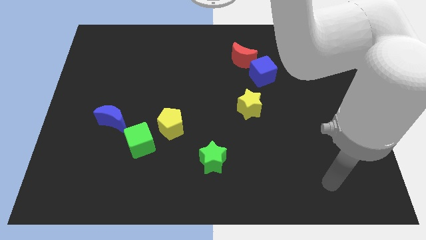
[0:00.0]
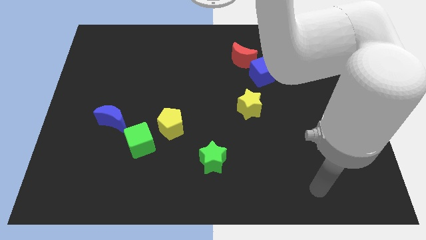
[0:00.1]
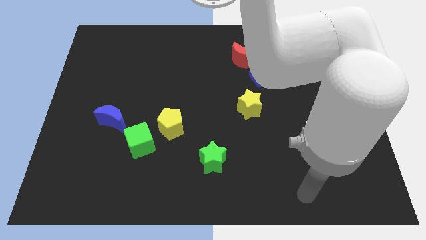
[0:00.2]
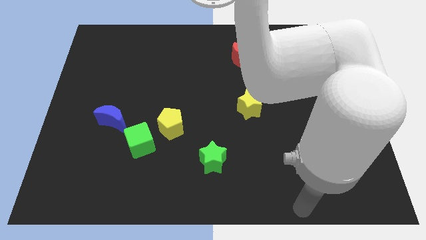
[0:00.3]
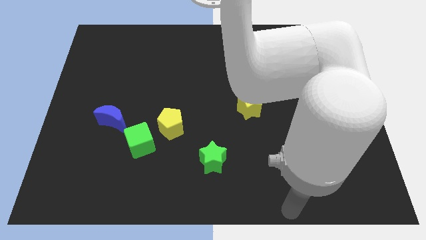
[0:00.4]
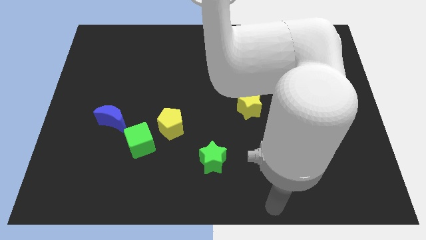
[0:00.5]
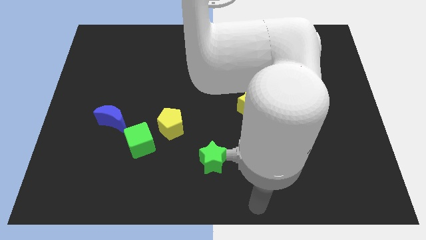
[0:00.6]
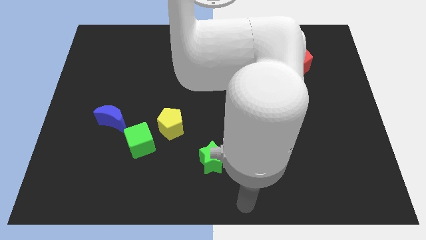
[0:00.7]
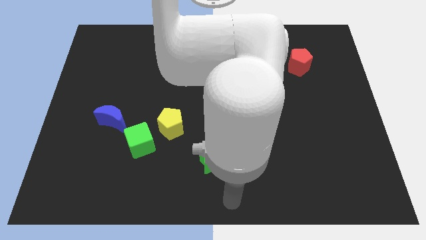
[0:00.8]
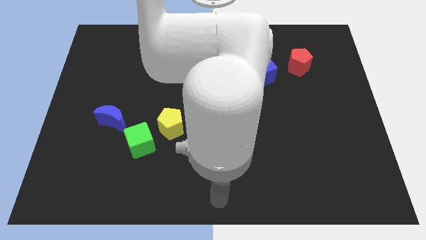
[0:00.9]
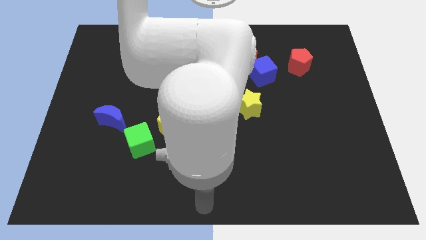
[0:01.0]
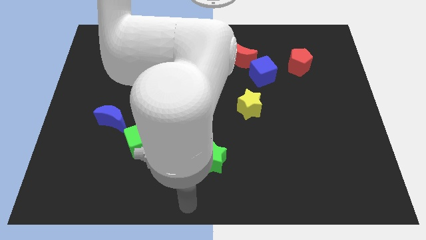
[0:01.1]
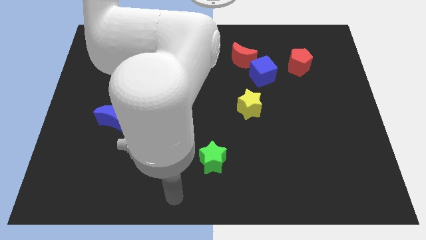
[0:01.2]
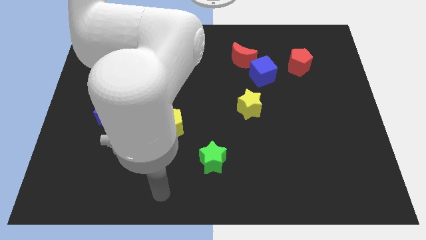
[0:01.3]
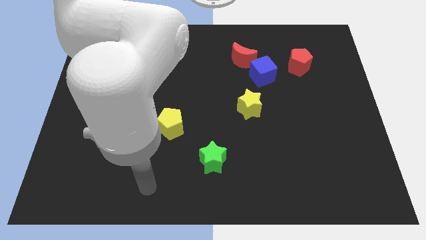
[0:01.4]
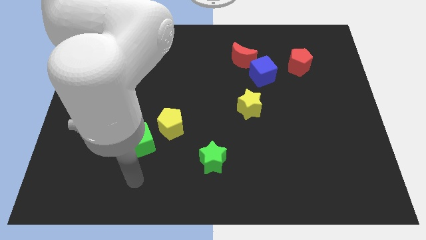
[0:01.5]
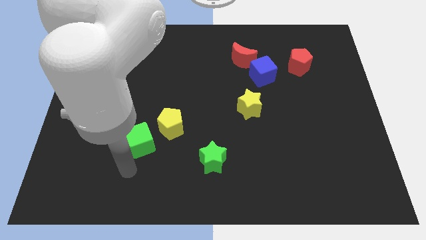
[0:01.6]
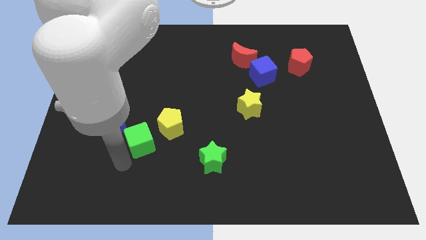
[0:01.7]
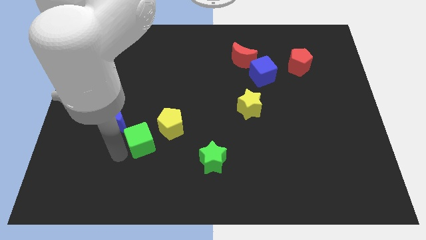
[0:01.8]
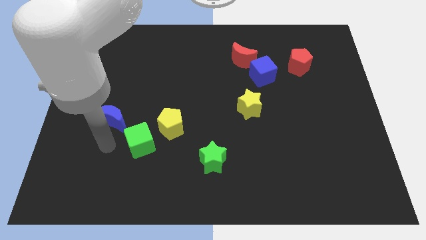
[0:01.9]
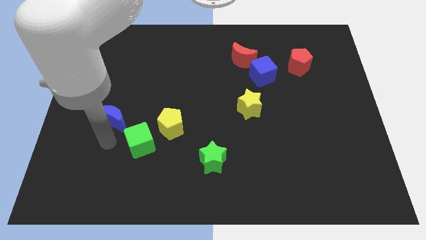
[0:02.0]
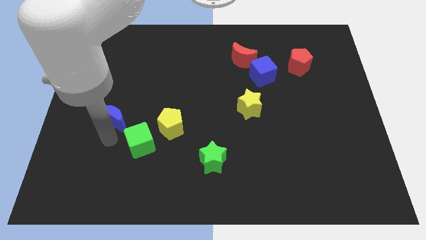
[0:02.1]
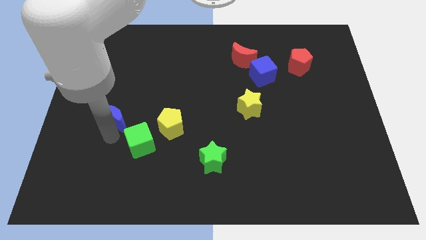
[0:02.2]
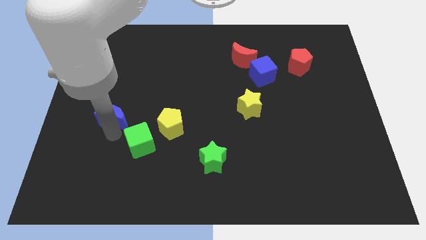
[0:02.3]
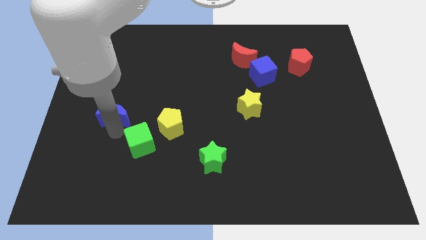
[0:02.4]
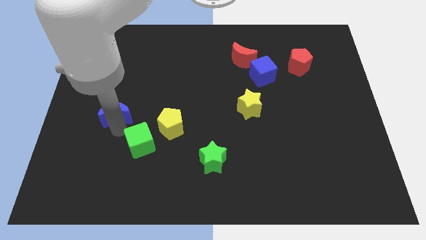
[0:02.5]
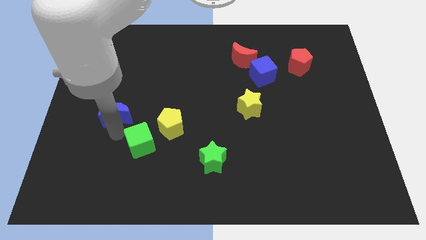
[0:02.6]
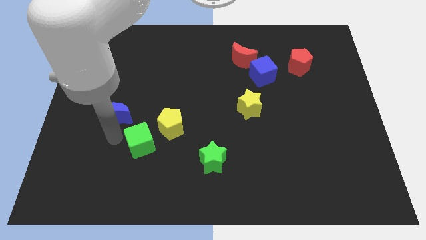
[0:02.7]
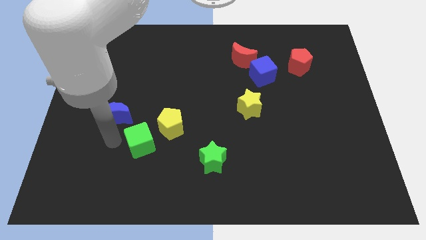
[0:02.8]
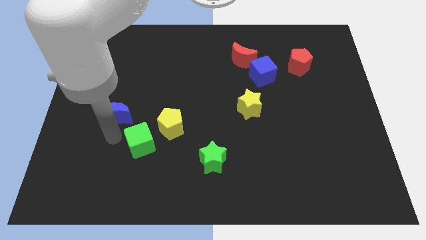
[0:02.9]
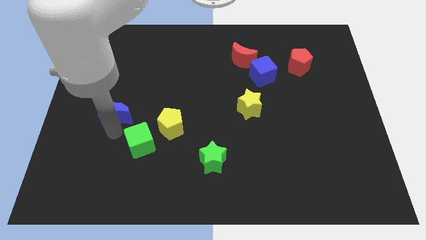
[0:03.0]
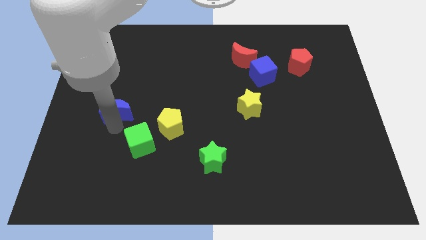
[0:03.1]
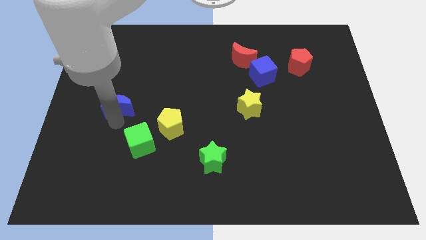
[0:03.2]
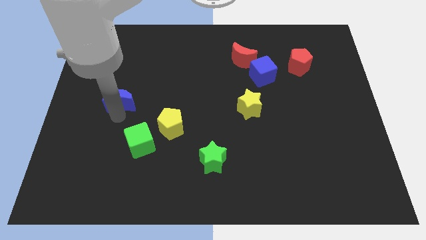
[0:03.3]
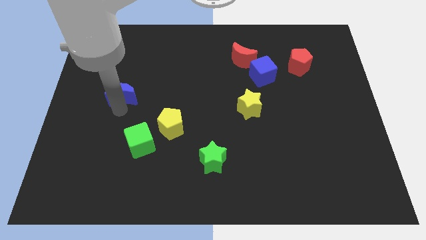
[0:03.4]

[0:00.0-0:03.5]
slightly move the blue moon up

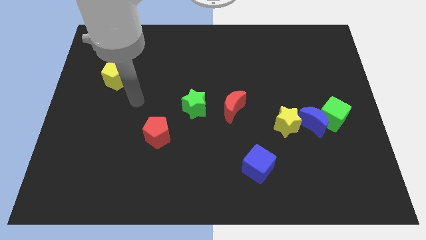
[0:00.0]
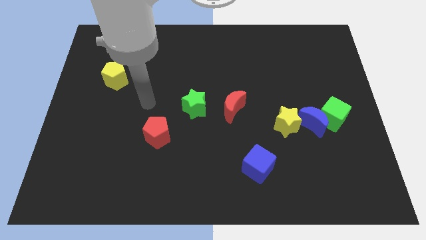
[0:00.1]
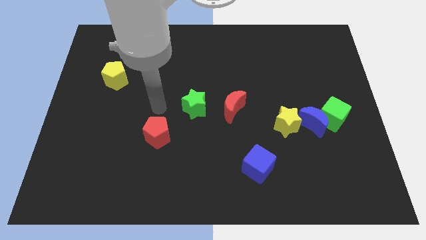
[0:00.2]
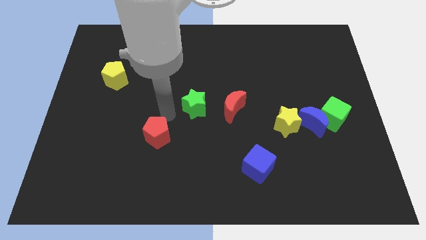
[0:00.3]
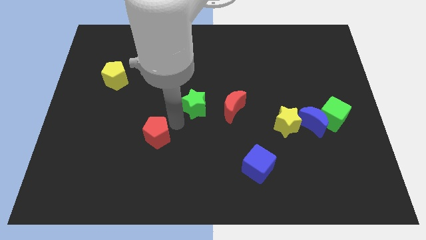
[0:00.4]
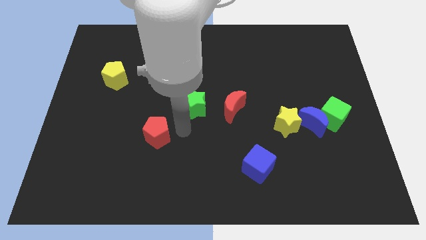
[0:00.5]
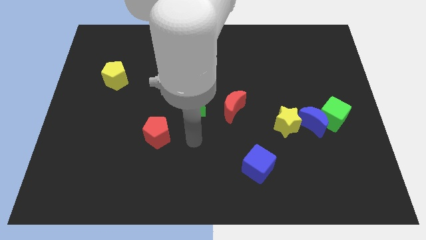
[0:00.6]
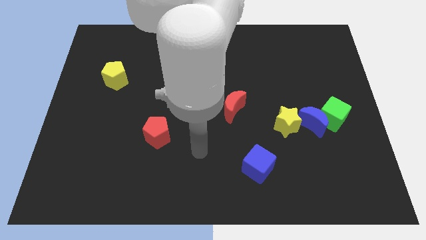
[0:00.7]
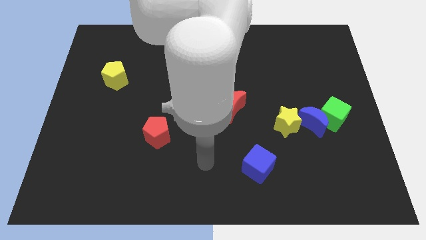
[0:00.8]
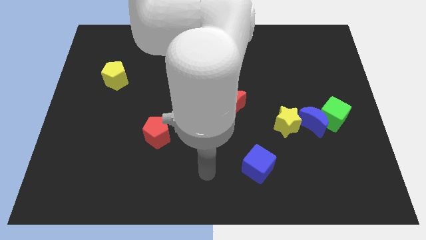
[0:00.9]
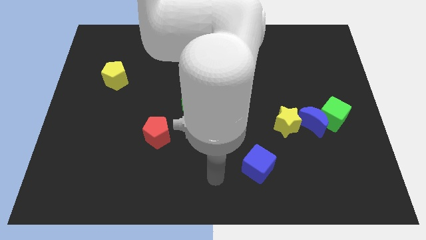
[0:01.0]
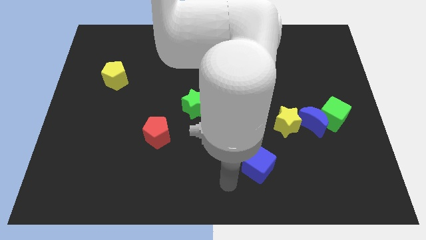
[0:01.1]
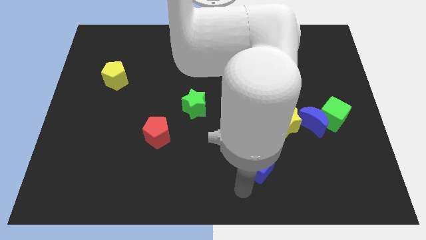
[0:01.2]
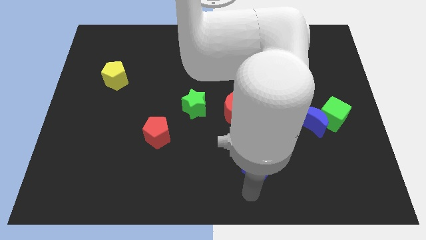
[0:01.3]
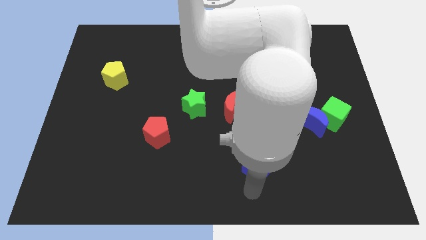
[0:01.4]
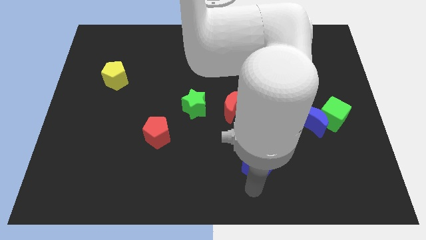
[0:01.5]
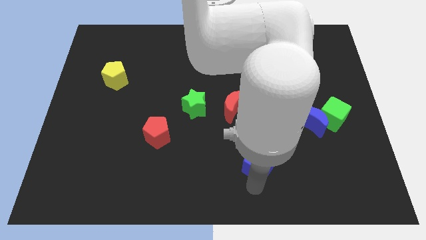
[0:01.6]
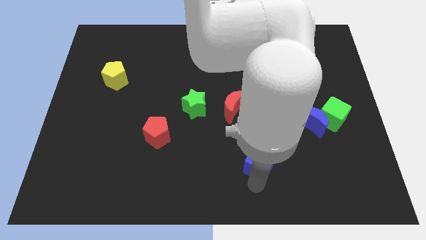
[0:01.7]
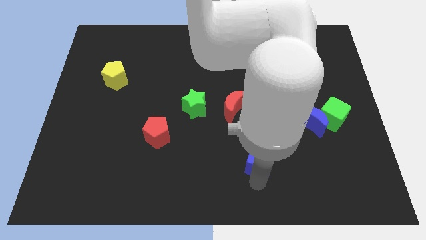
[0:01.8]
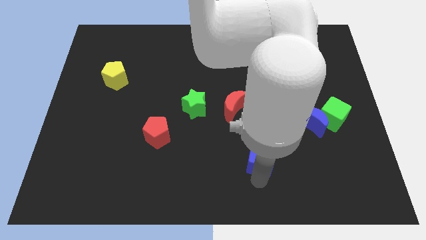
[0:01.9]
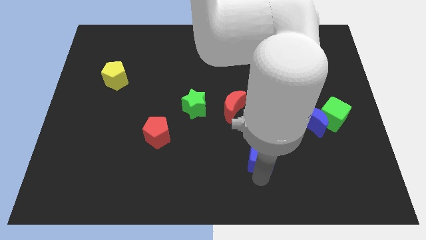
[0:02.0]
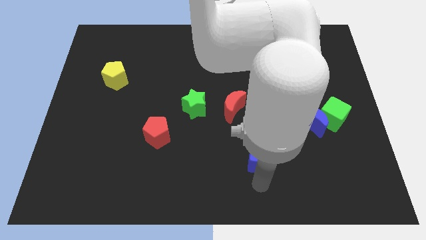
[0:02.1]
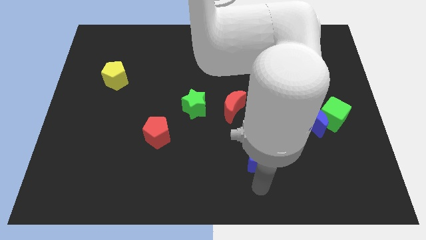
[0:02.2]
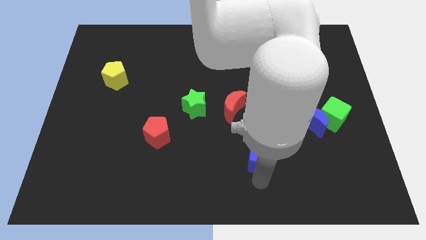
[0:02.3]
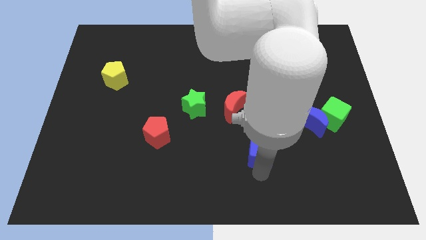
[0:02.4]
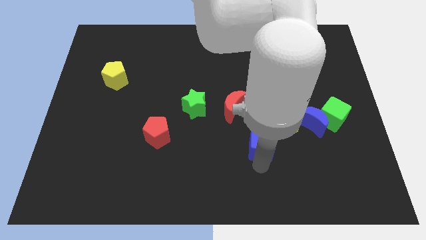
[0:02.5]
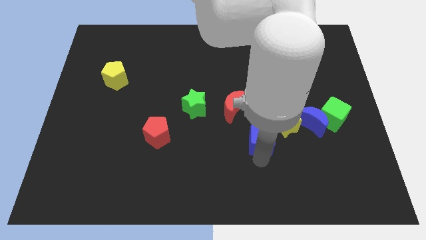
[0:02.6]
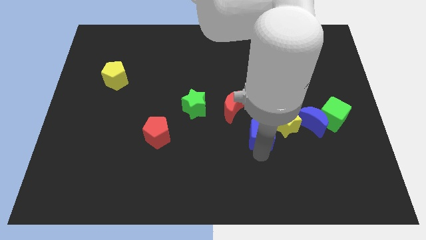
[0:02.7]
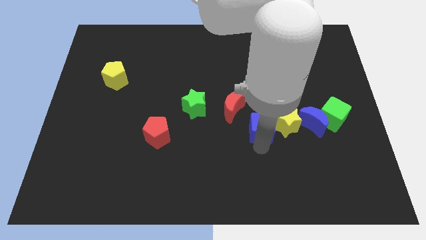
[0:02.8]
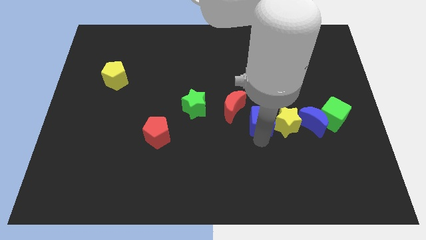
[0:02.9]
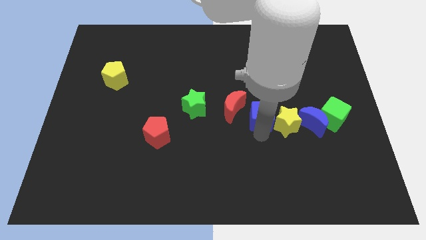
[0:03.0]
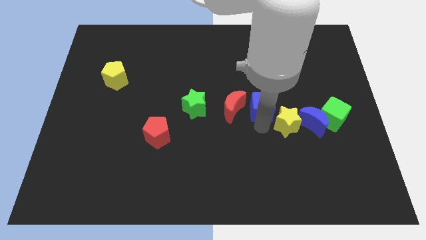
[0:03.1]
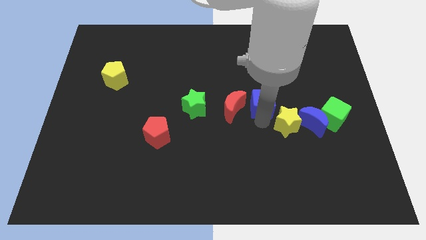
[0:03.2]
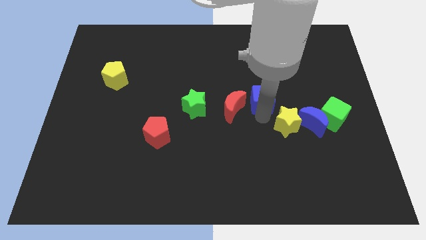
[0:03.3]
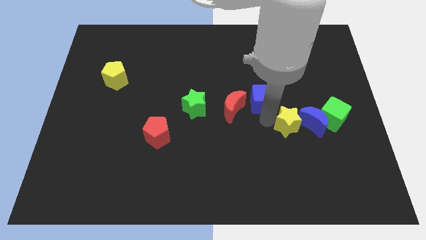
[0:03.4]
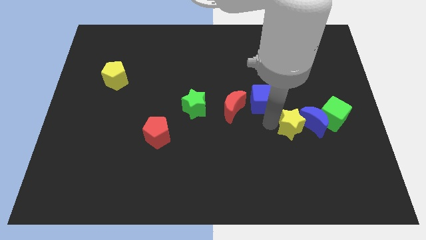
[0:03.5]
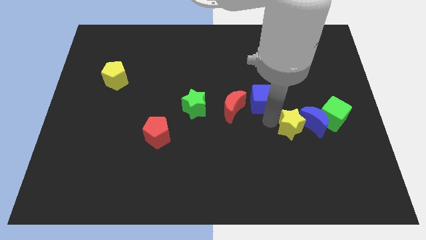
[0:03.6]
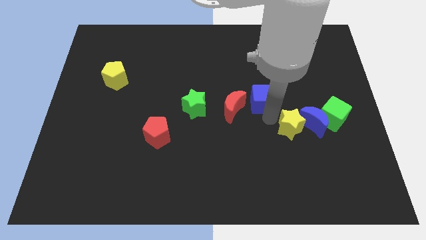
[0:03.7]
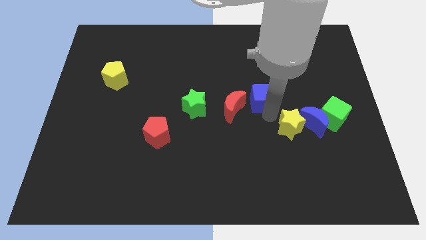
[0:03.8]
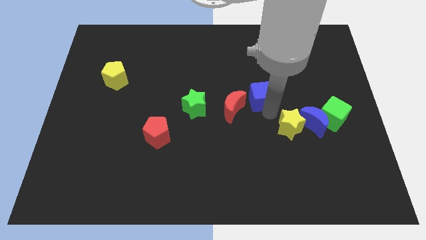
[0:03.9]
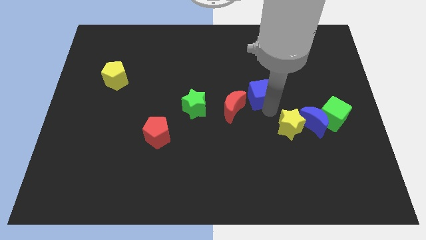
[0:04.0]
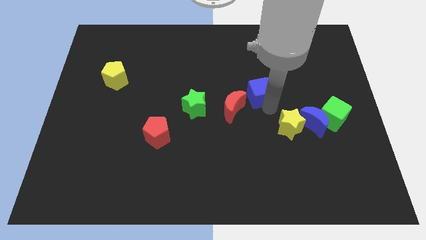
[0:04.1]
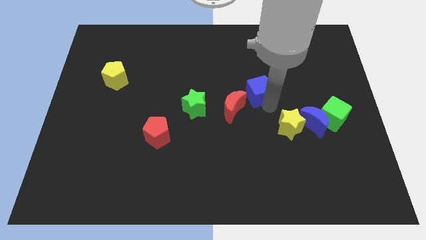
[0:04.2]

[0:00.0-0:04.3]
slide the blue cube up
